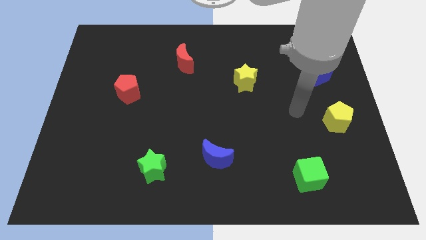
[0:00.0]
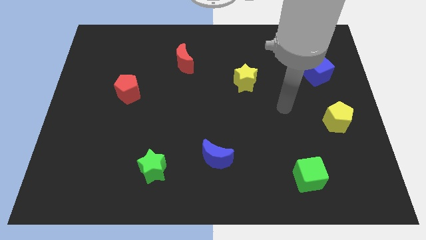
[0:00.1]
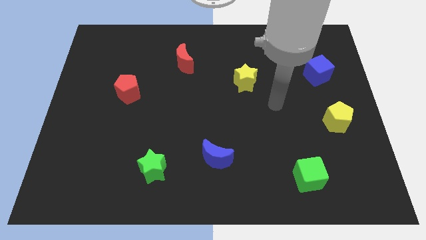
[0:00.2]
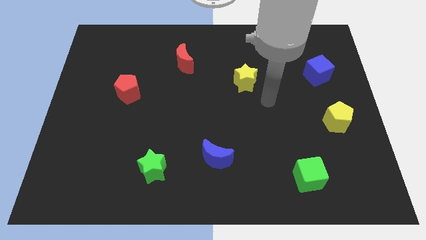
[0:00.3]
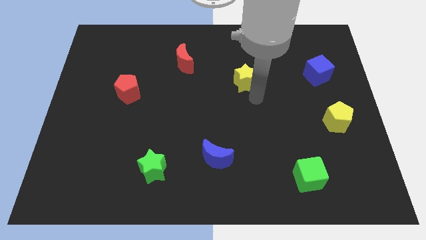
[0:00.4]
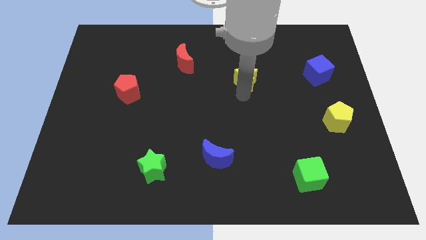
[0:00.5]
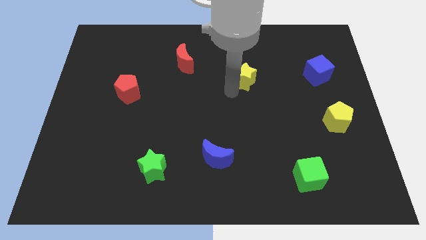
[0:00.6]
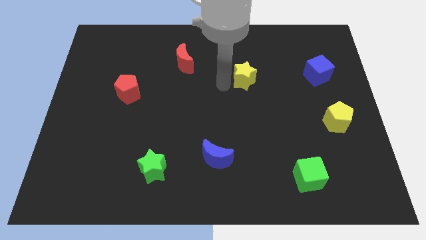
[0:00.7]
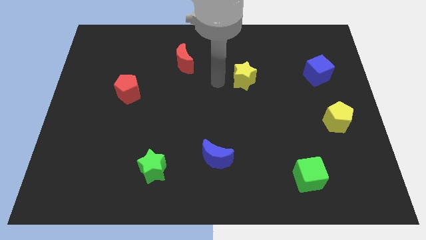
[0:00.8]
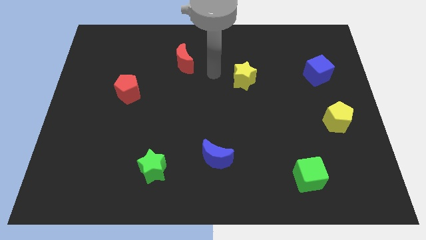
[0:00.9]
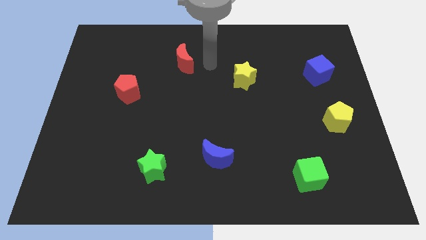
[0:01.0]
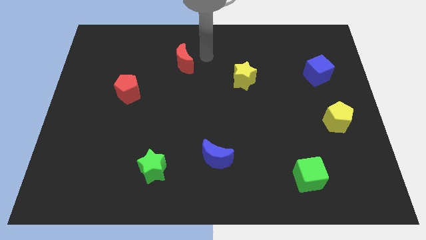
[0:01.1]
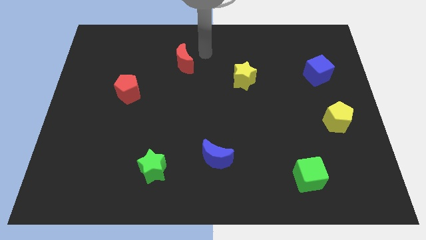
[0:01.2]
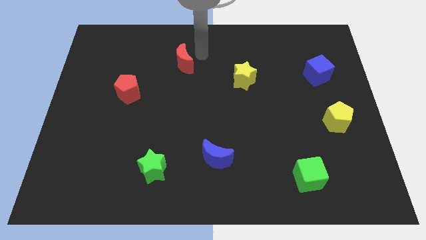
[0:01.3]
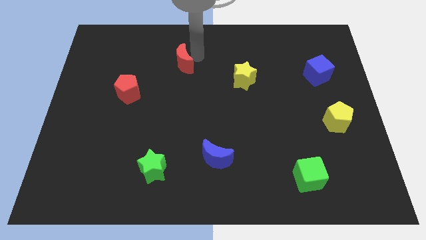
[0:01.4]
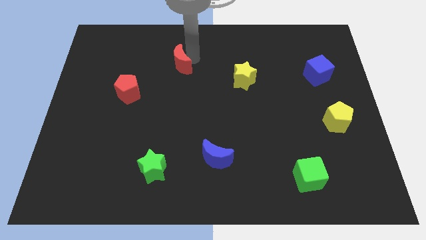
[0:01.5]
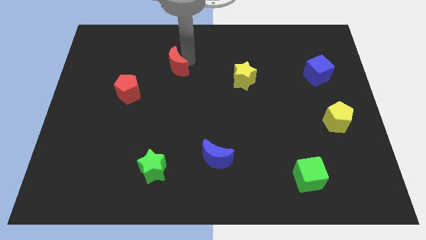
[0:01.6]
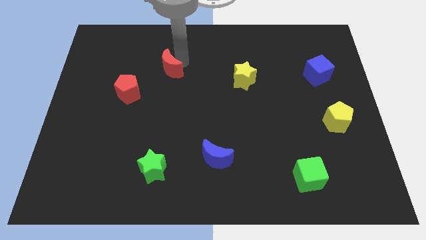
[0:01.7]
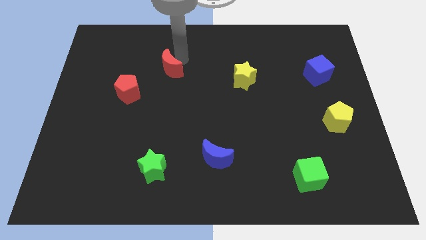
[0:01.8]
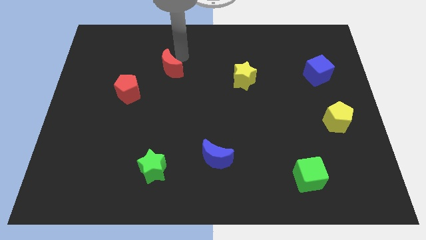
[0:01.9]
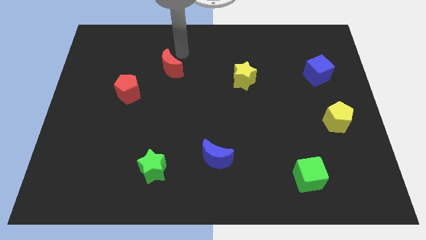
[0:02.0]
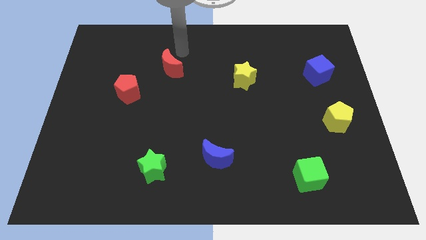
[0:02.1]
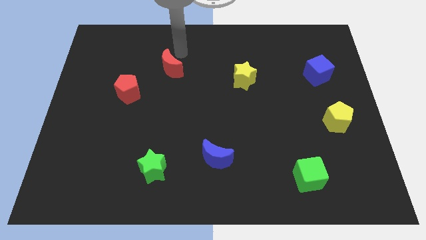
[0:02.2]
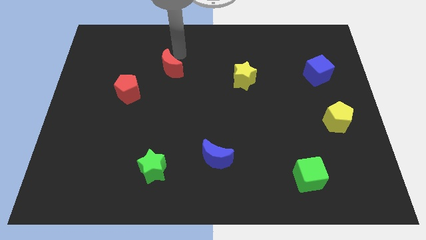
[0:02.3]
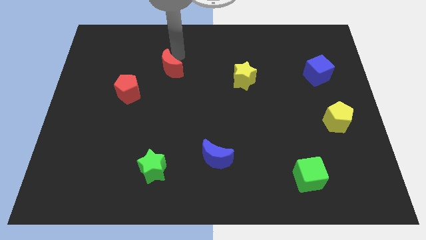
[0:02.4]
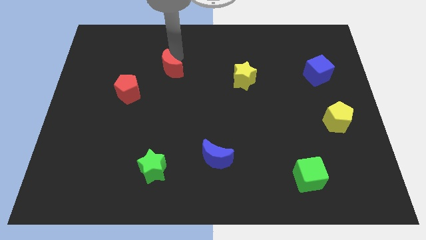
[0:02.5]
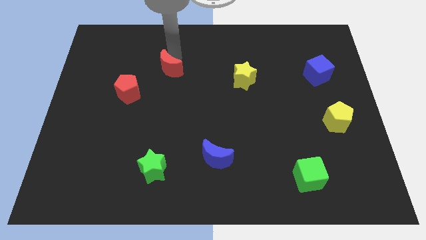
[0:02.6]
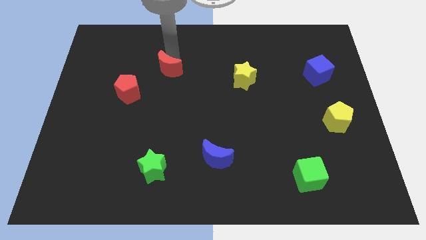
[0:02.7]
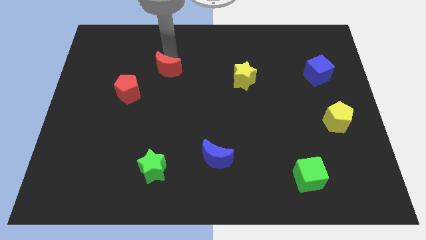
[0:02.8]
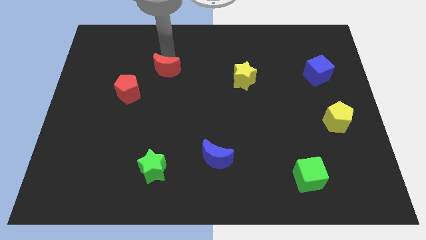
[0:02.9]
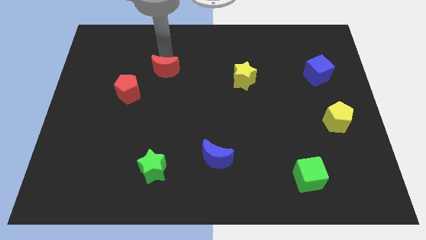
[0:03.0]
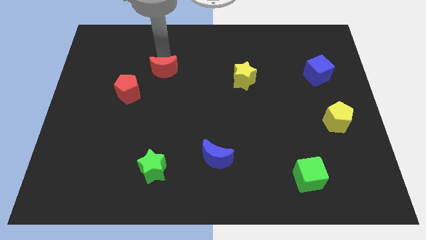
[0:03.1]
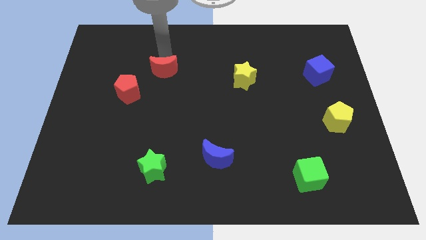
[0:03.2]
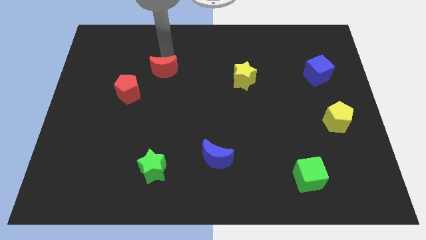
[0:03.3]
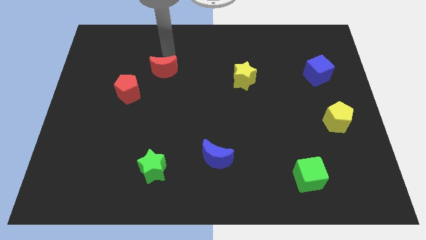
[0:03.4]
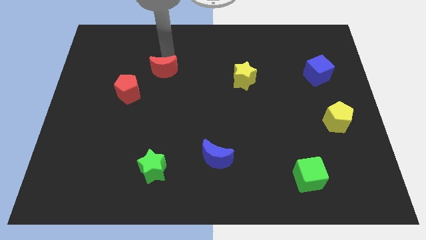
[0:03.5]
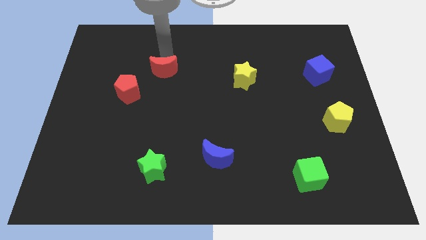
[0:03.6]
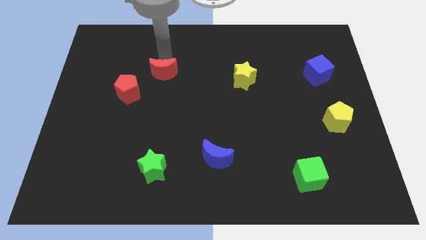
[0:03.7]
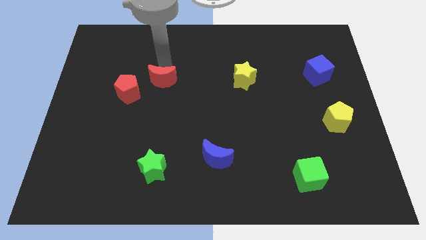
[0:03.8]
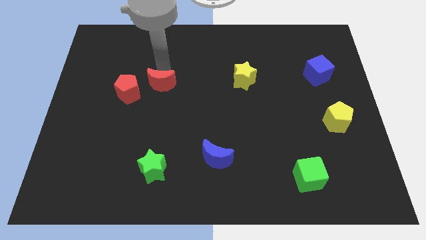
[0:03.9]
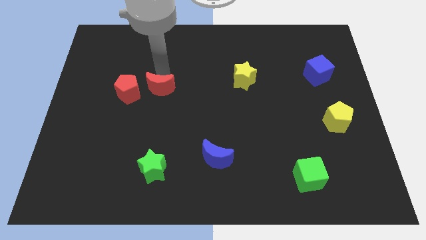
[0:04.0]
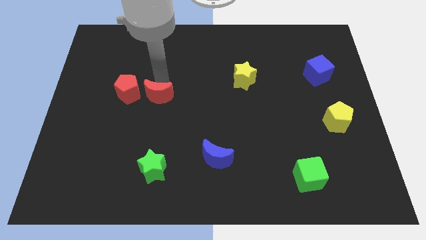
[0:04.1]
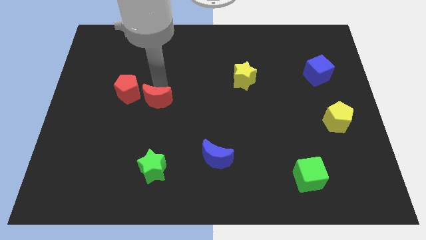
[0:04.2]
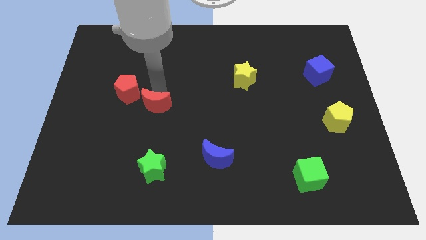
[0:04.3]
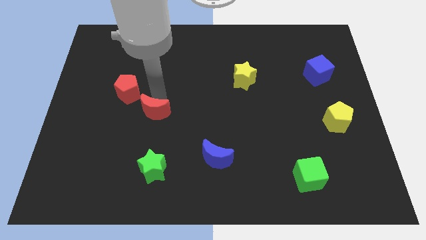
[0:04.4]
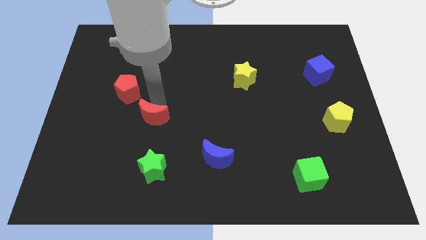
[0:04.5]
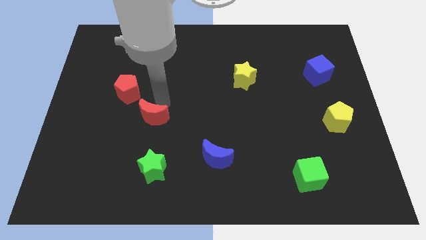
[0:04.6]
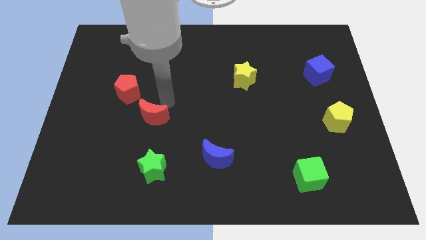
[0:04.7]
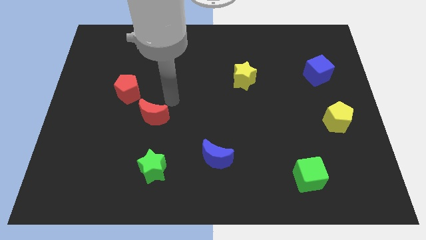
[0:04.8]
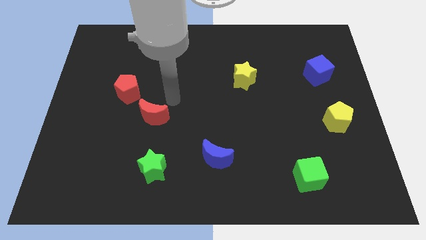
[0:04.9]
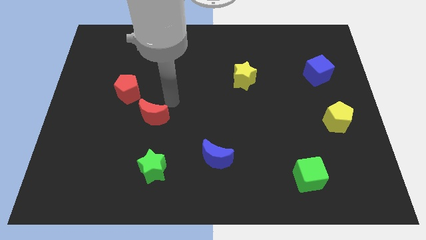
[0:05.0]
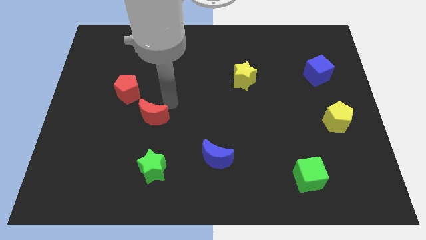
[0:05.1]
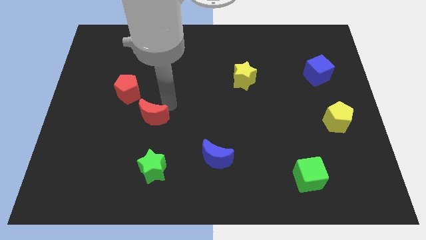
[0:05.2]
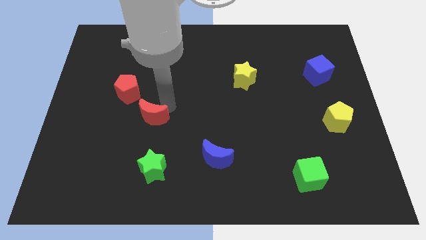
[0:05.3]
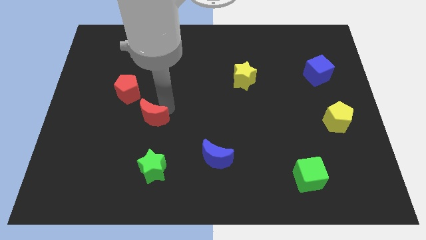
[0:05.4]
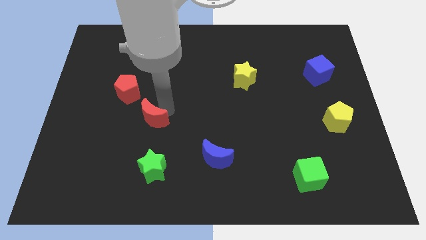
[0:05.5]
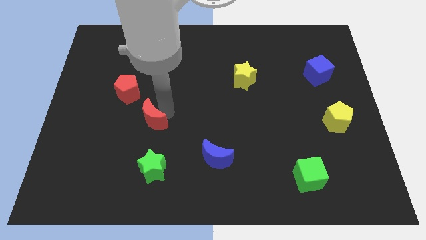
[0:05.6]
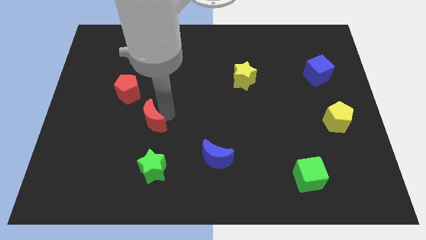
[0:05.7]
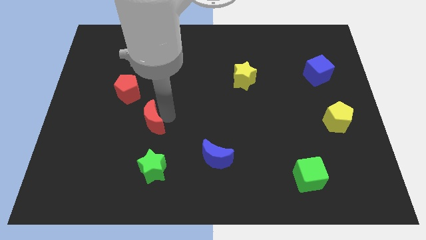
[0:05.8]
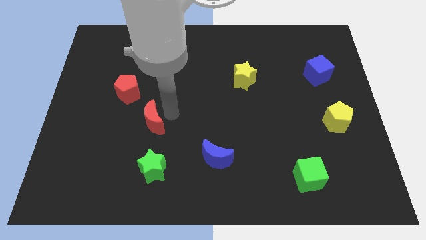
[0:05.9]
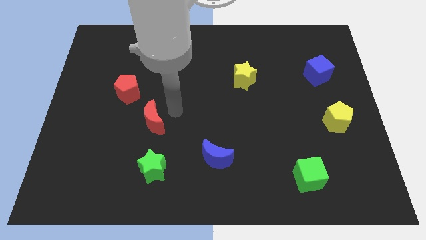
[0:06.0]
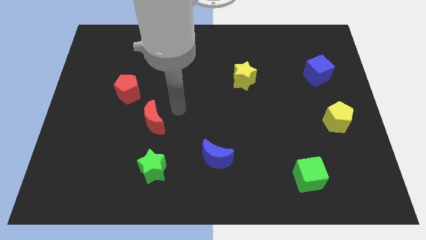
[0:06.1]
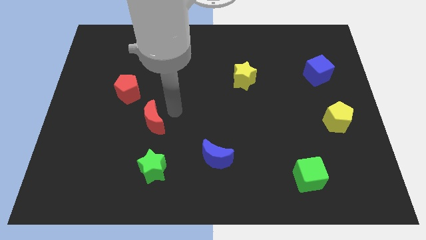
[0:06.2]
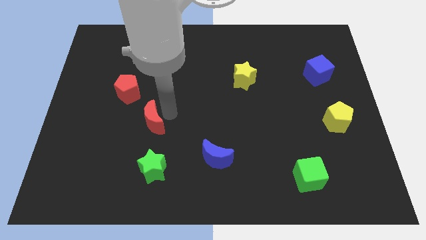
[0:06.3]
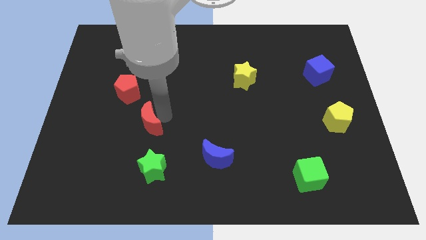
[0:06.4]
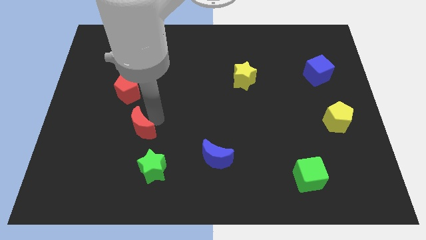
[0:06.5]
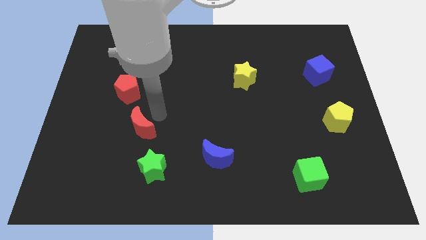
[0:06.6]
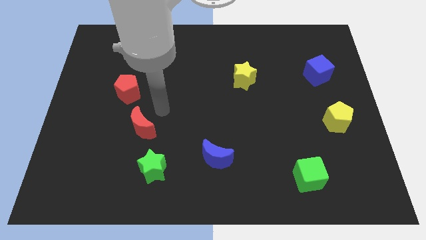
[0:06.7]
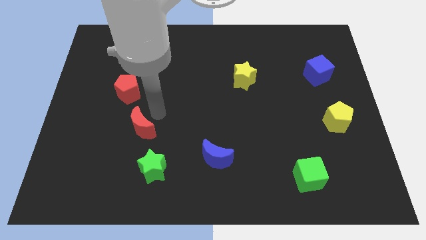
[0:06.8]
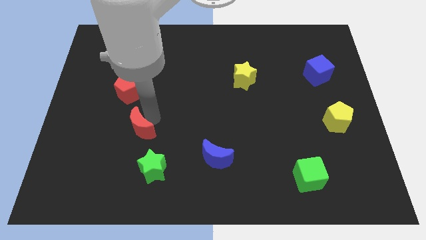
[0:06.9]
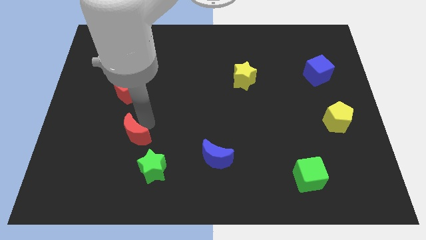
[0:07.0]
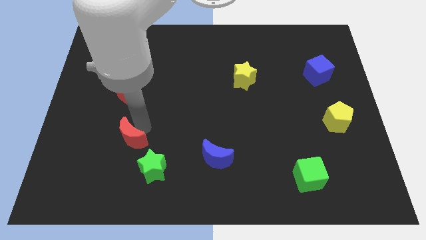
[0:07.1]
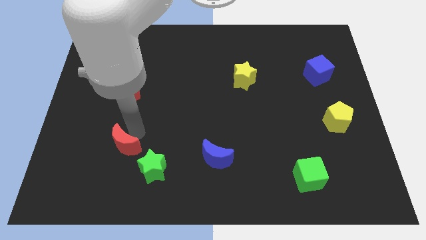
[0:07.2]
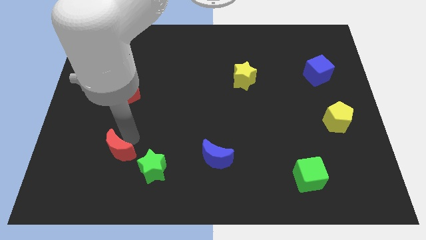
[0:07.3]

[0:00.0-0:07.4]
push the red moon to the left of the green star
